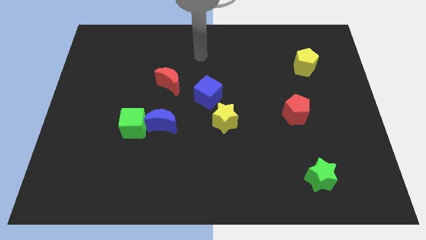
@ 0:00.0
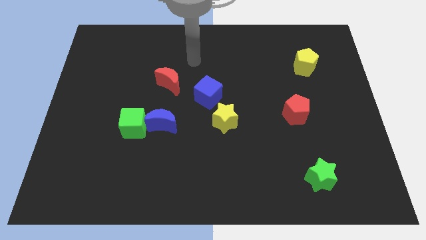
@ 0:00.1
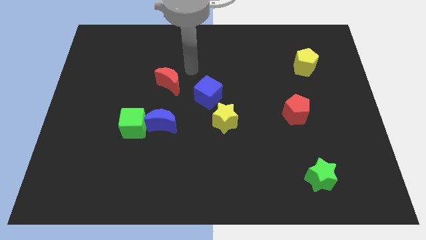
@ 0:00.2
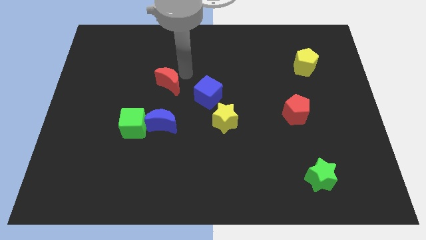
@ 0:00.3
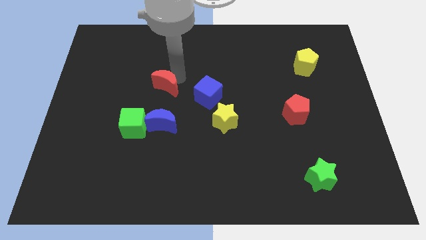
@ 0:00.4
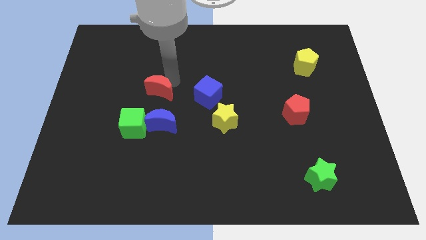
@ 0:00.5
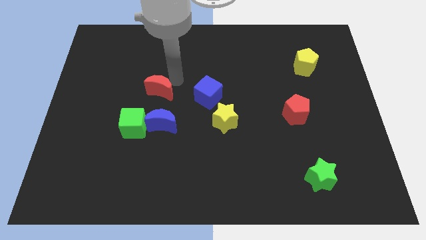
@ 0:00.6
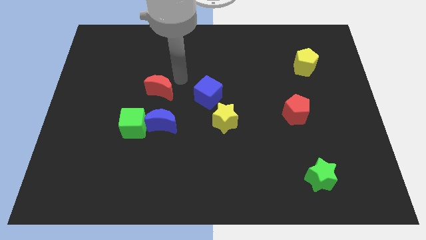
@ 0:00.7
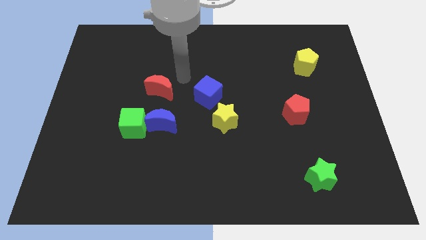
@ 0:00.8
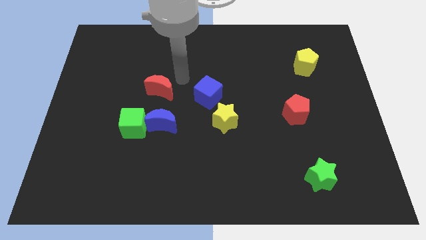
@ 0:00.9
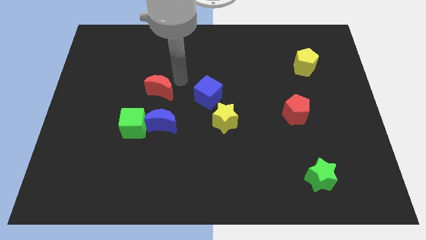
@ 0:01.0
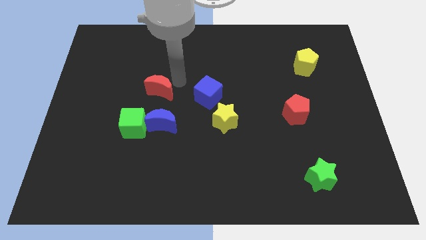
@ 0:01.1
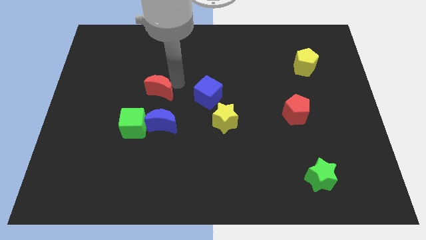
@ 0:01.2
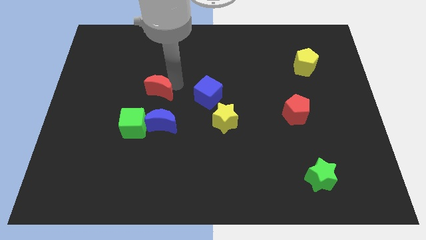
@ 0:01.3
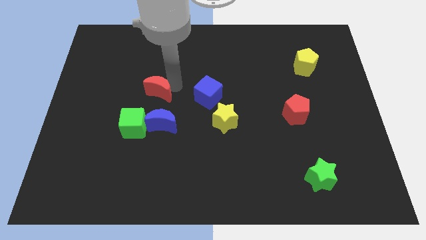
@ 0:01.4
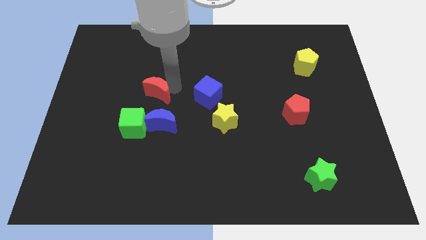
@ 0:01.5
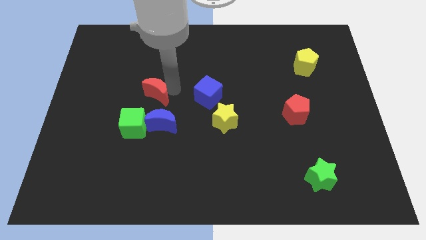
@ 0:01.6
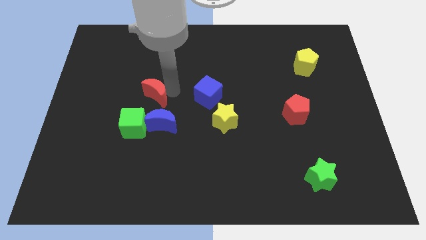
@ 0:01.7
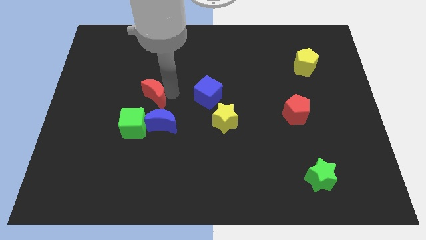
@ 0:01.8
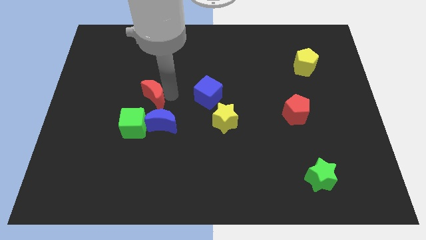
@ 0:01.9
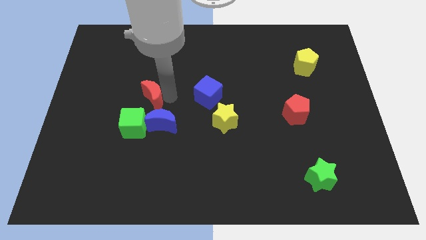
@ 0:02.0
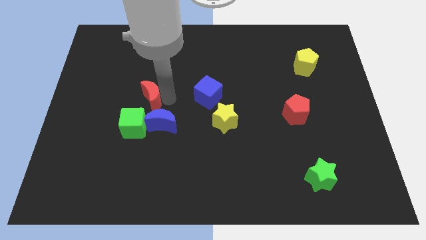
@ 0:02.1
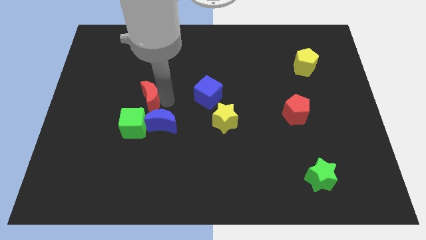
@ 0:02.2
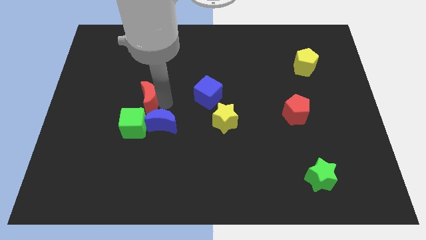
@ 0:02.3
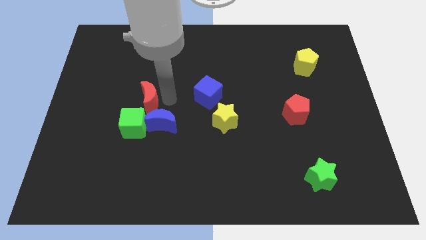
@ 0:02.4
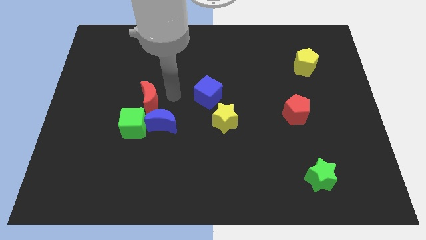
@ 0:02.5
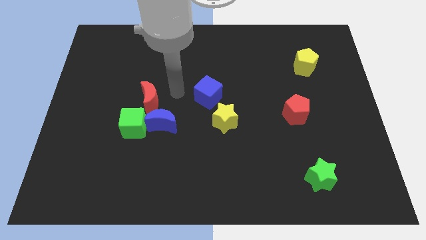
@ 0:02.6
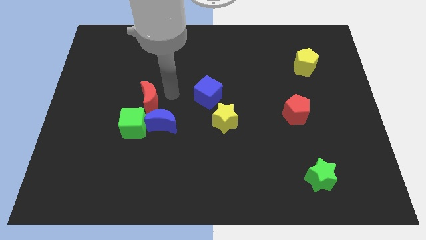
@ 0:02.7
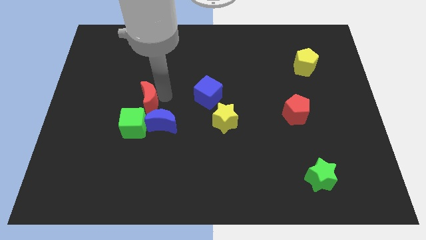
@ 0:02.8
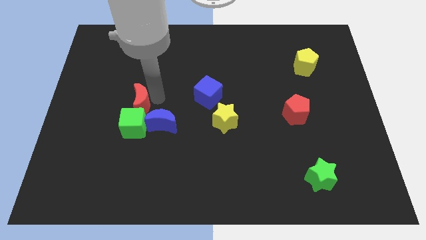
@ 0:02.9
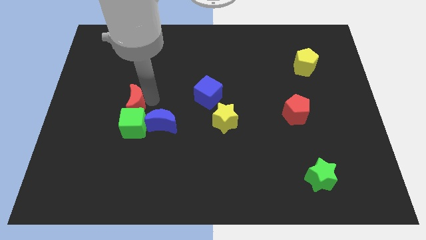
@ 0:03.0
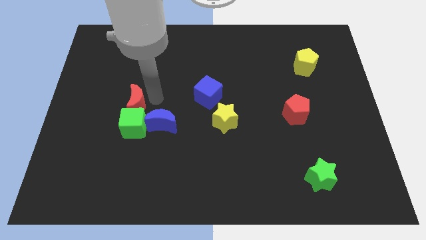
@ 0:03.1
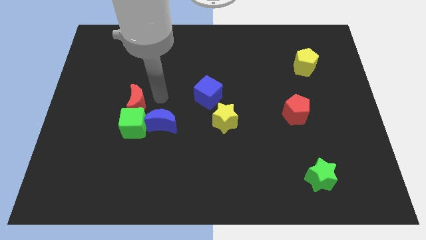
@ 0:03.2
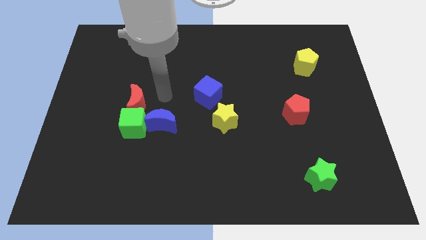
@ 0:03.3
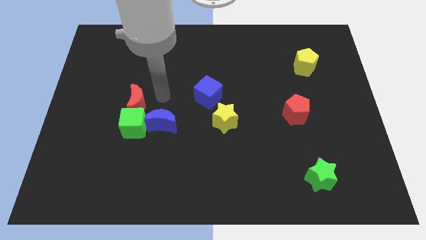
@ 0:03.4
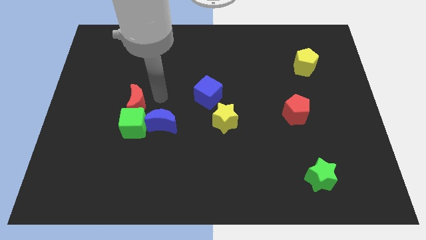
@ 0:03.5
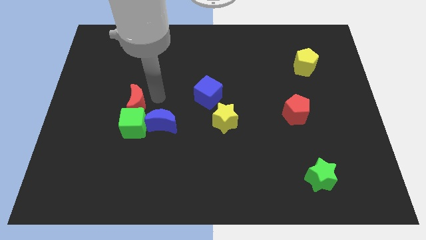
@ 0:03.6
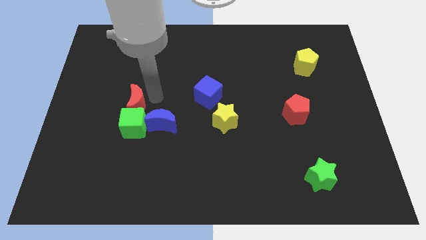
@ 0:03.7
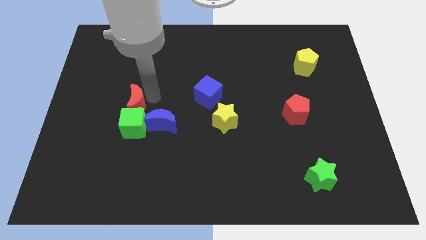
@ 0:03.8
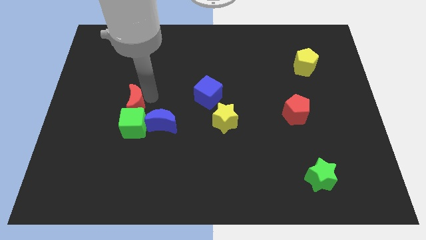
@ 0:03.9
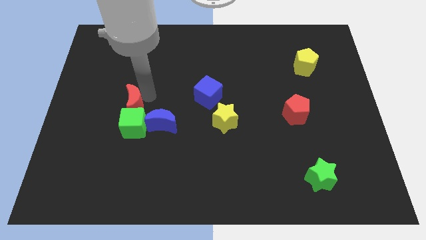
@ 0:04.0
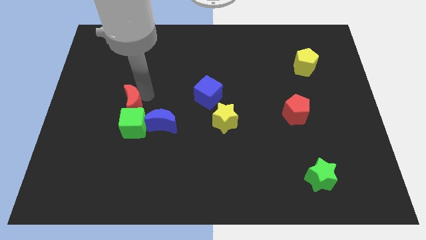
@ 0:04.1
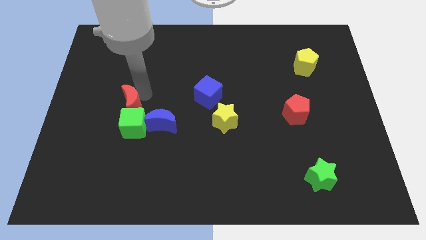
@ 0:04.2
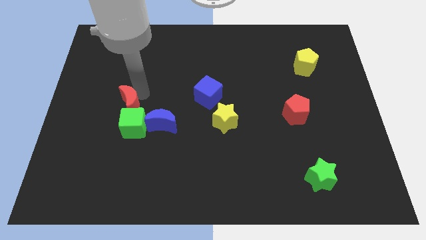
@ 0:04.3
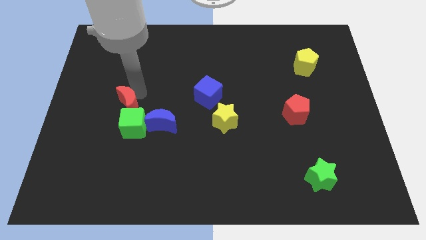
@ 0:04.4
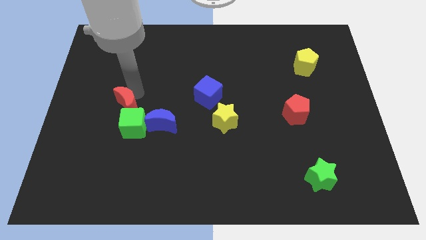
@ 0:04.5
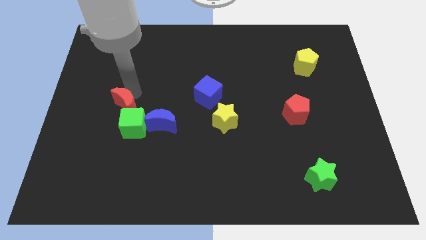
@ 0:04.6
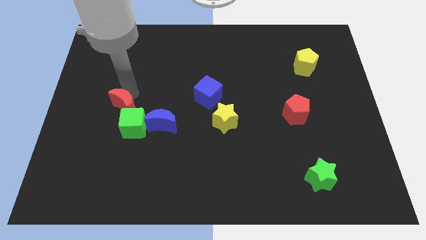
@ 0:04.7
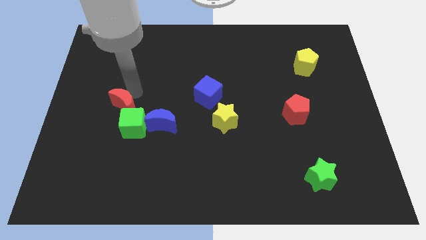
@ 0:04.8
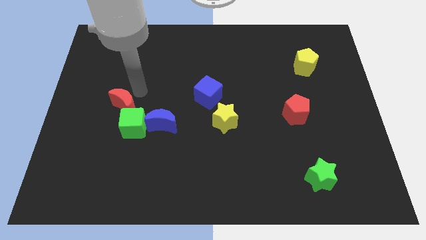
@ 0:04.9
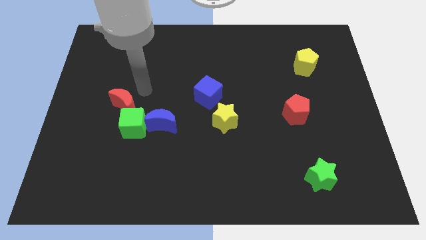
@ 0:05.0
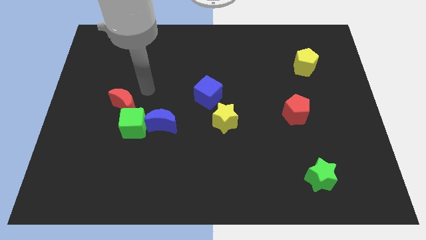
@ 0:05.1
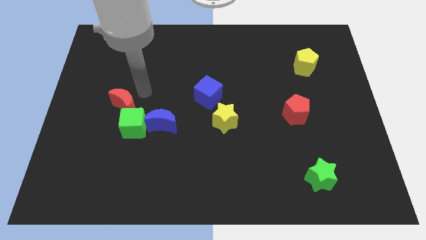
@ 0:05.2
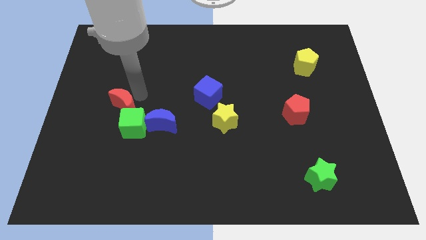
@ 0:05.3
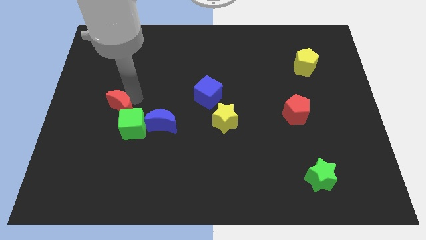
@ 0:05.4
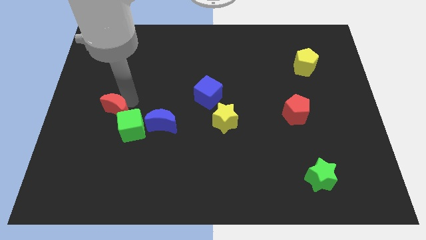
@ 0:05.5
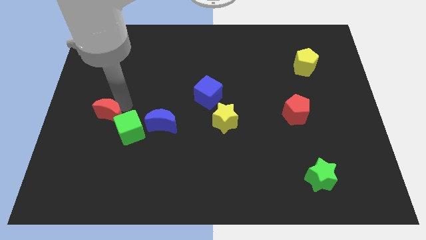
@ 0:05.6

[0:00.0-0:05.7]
slide the red moon to the left side of the green cube

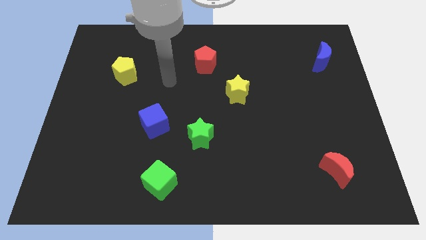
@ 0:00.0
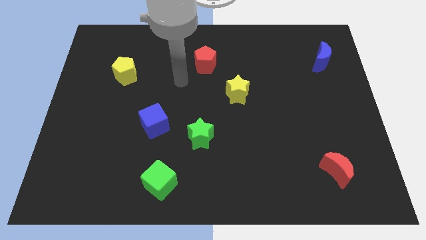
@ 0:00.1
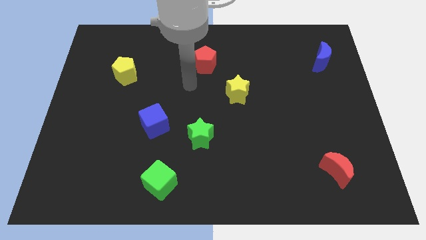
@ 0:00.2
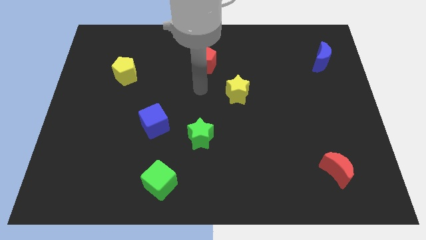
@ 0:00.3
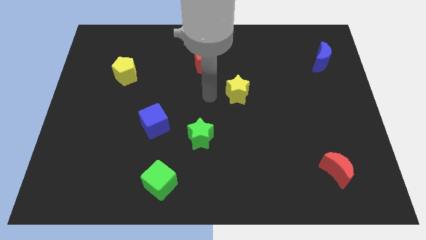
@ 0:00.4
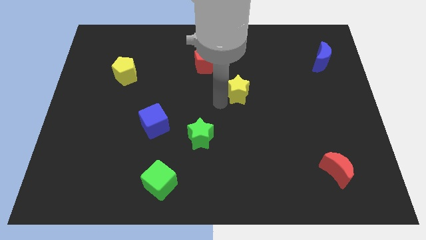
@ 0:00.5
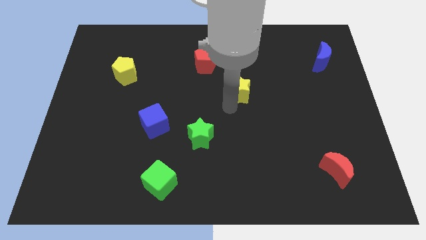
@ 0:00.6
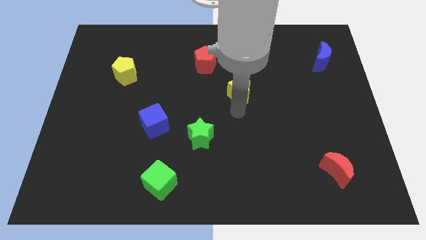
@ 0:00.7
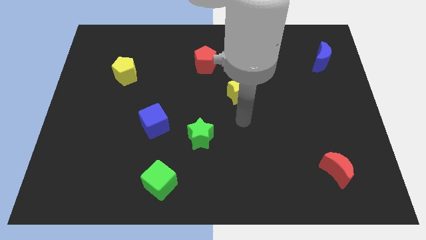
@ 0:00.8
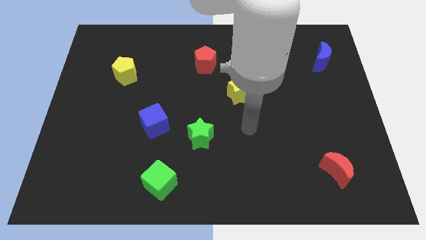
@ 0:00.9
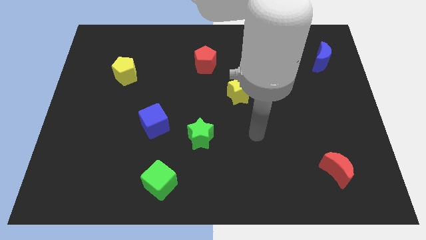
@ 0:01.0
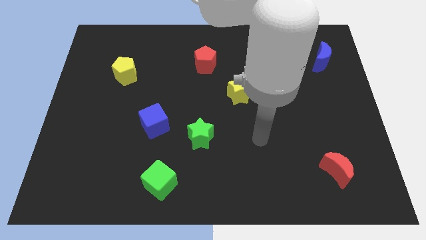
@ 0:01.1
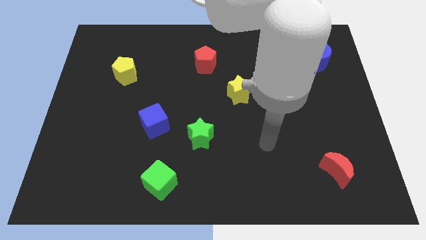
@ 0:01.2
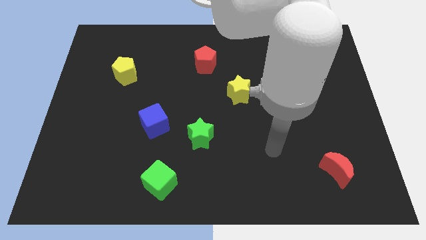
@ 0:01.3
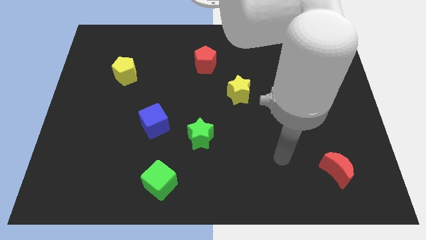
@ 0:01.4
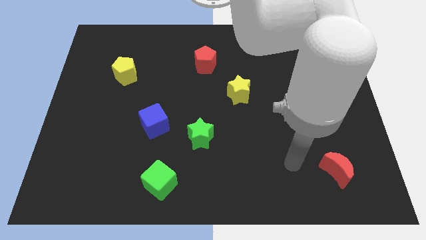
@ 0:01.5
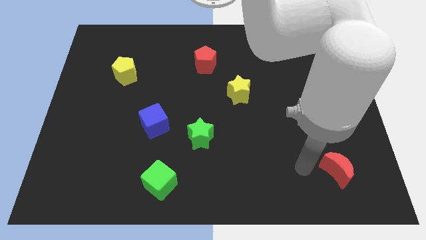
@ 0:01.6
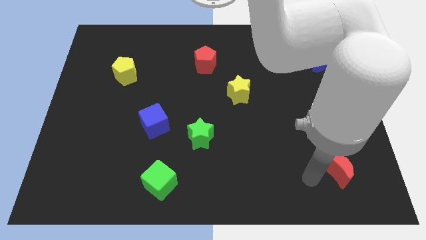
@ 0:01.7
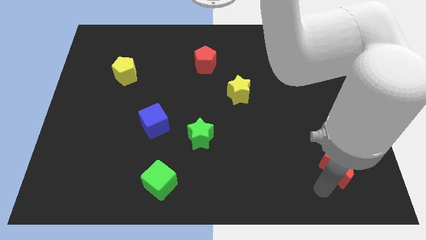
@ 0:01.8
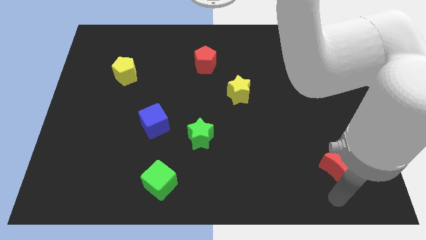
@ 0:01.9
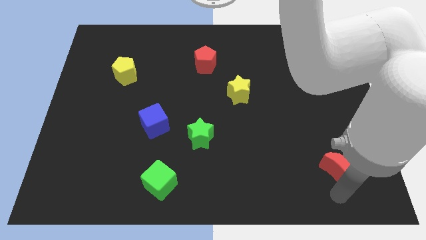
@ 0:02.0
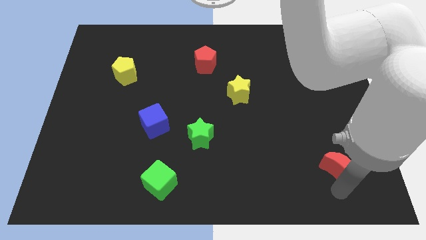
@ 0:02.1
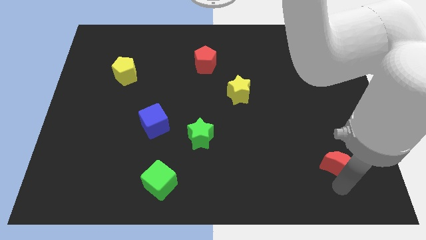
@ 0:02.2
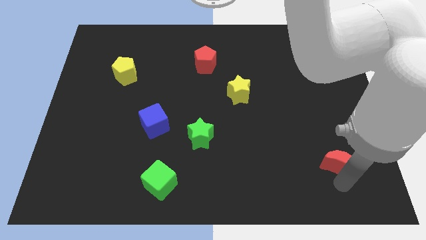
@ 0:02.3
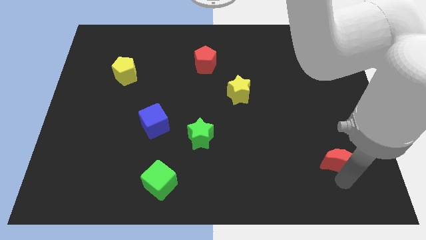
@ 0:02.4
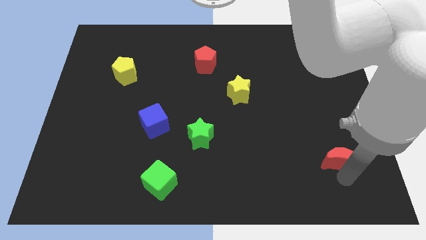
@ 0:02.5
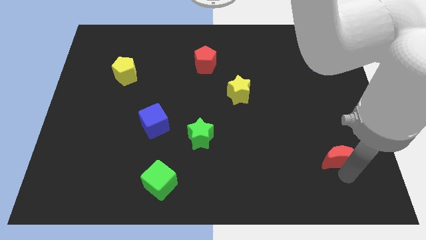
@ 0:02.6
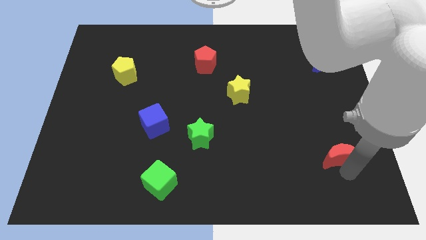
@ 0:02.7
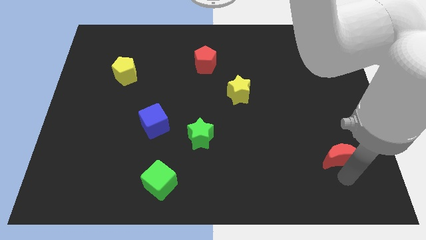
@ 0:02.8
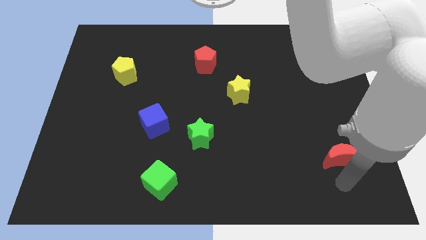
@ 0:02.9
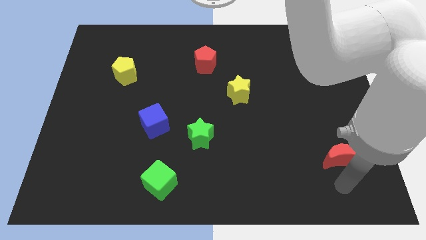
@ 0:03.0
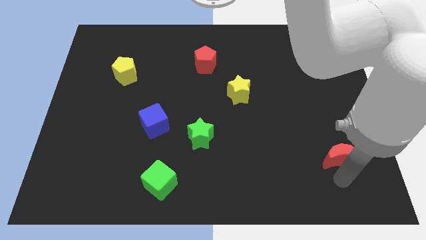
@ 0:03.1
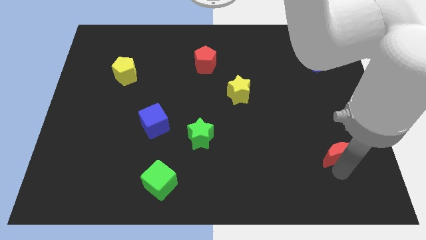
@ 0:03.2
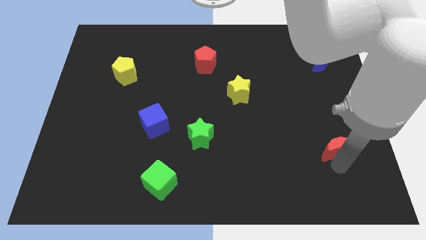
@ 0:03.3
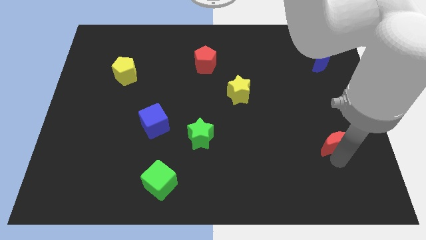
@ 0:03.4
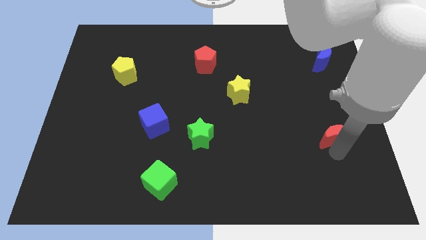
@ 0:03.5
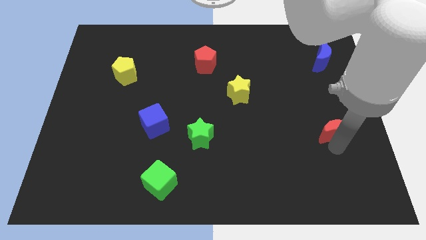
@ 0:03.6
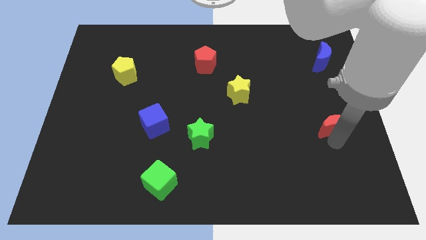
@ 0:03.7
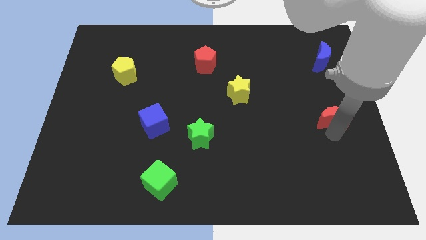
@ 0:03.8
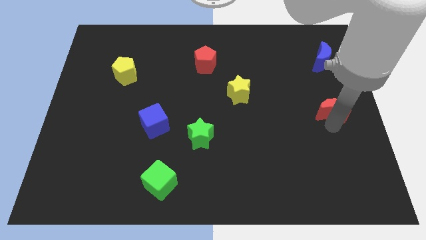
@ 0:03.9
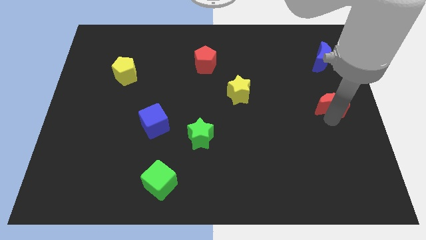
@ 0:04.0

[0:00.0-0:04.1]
put the red moon below the blue moon
